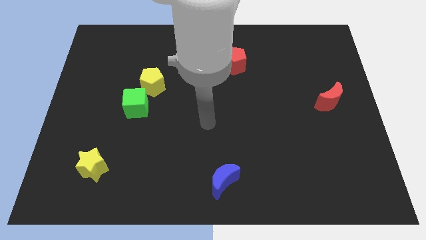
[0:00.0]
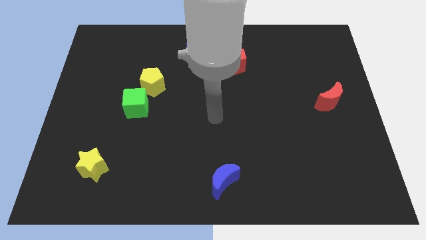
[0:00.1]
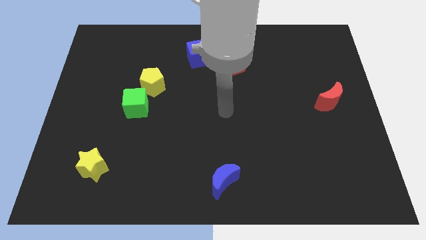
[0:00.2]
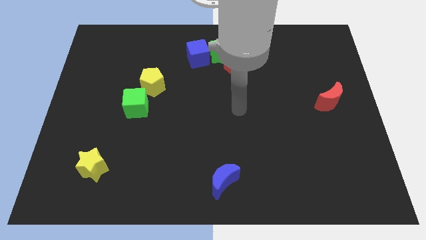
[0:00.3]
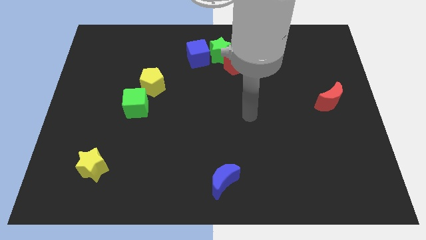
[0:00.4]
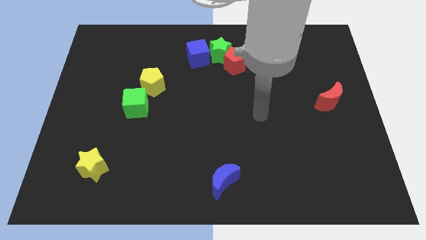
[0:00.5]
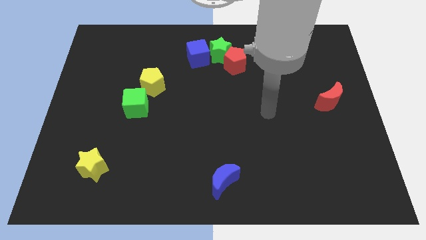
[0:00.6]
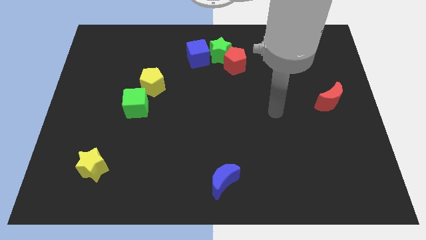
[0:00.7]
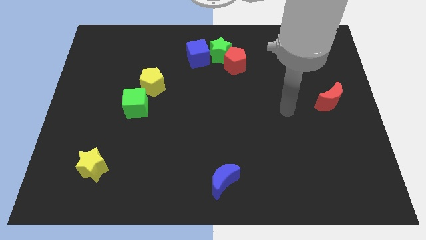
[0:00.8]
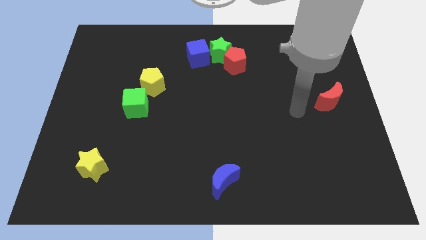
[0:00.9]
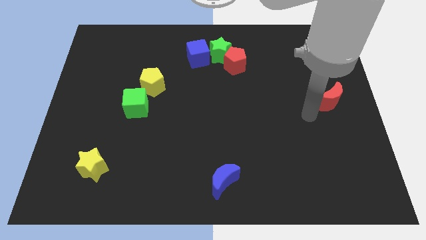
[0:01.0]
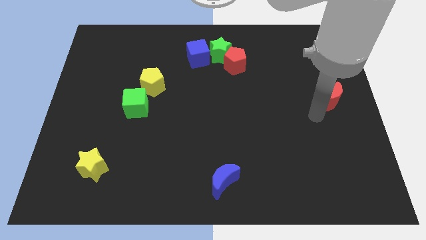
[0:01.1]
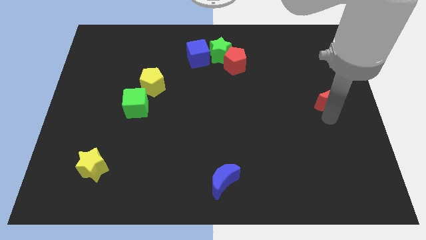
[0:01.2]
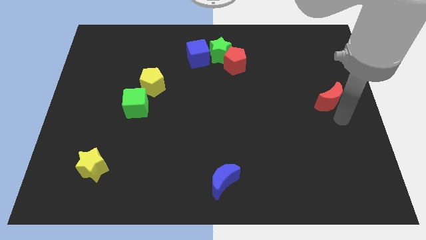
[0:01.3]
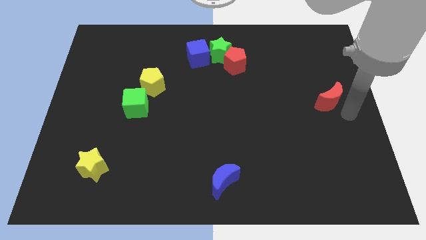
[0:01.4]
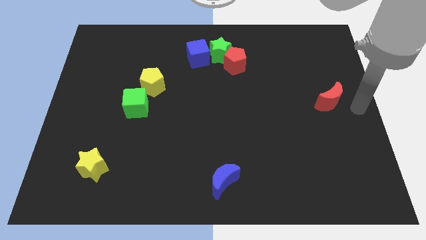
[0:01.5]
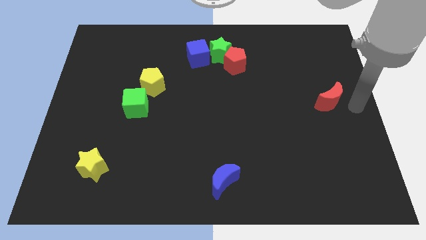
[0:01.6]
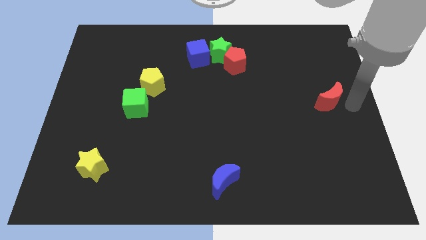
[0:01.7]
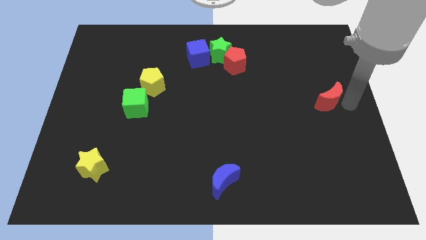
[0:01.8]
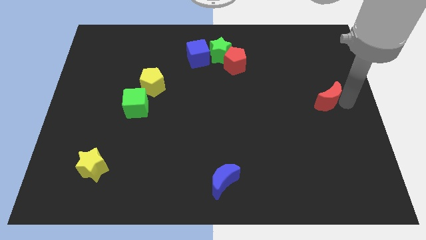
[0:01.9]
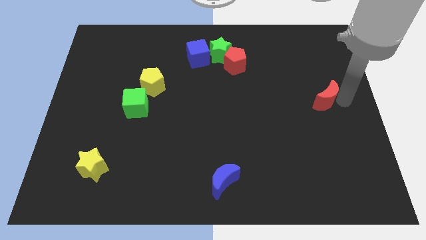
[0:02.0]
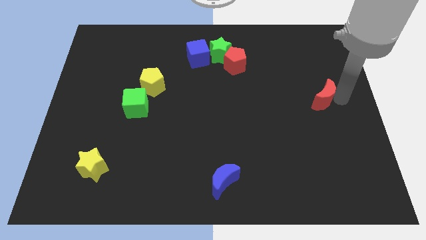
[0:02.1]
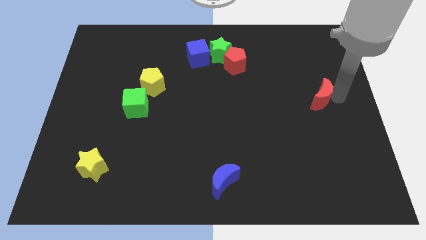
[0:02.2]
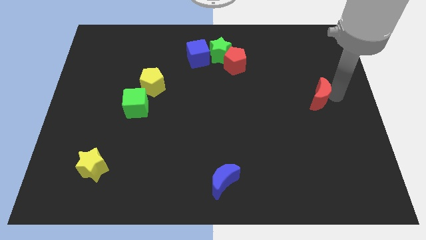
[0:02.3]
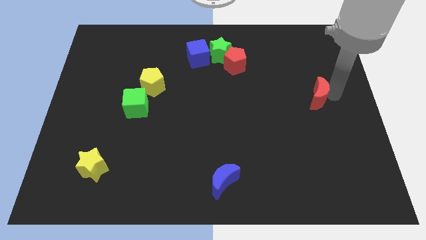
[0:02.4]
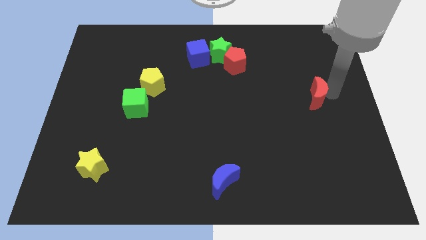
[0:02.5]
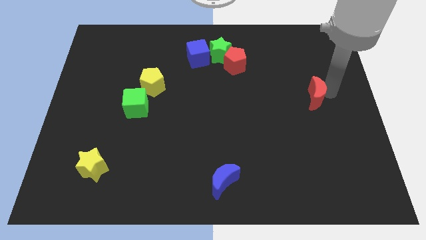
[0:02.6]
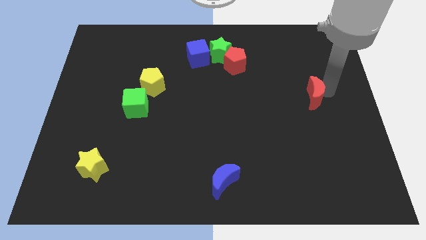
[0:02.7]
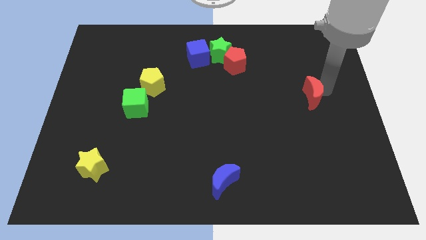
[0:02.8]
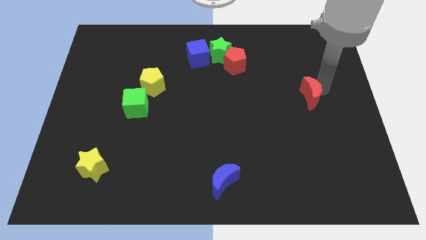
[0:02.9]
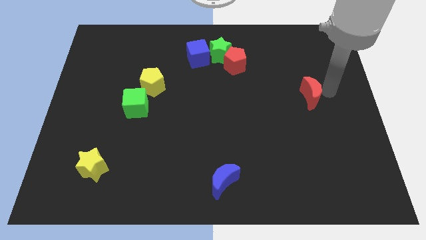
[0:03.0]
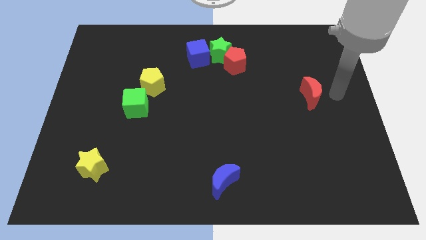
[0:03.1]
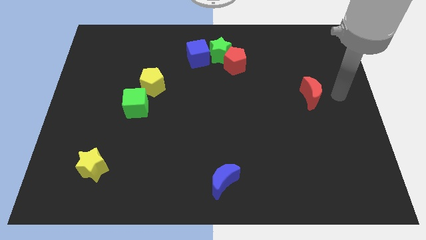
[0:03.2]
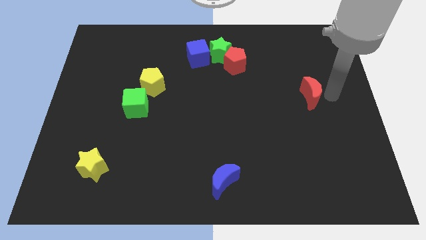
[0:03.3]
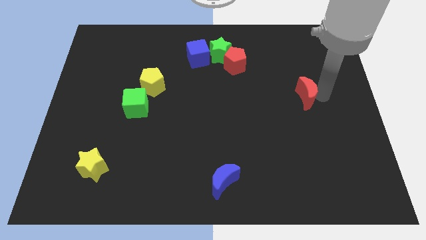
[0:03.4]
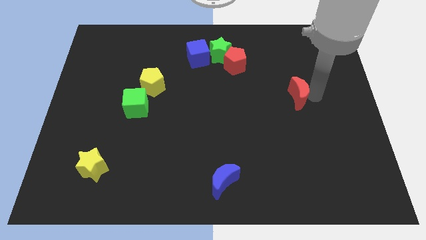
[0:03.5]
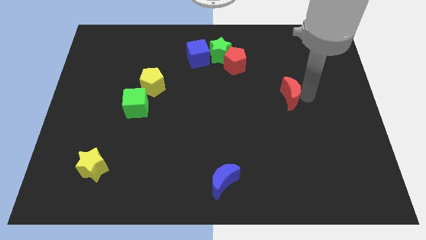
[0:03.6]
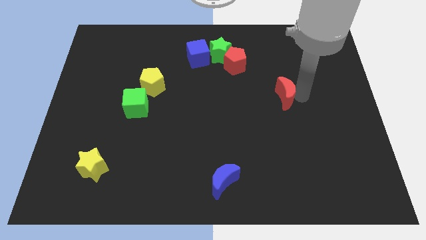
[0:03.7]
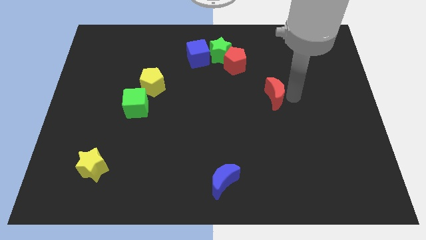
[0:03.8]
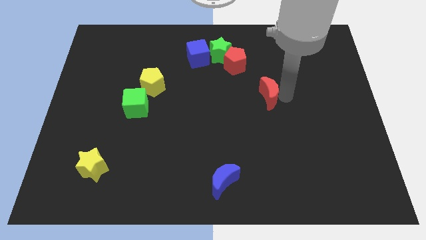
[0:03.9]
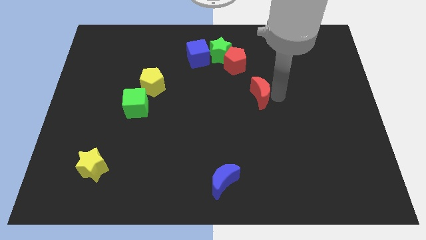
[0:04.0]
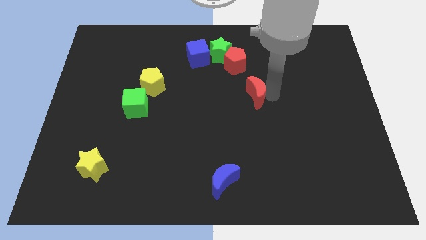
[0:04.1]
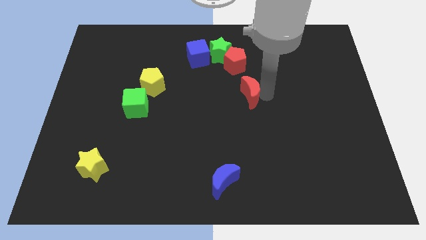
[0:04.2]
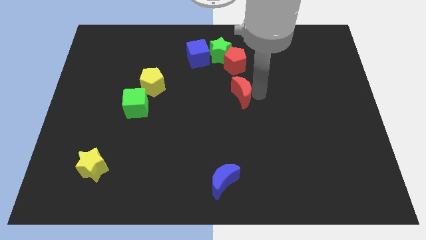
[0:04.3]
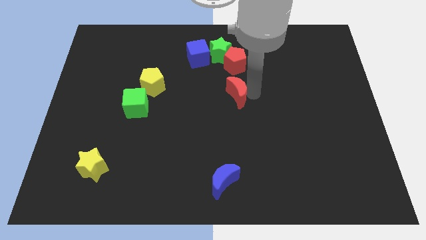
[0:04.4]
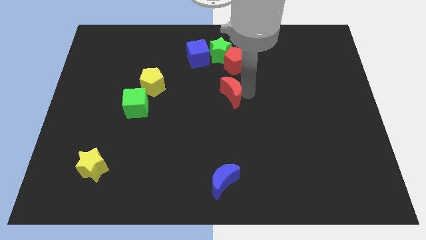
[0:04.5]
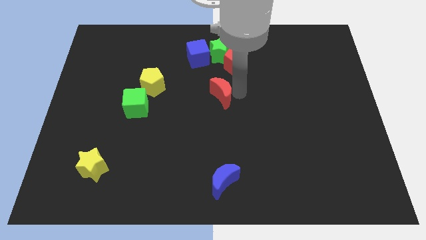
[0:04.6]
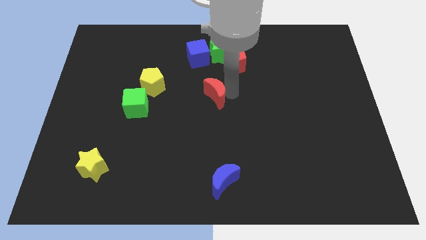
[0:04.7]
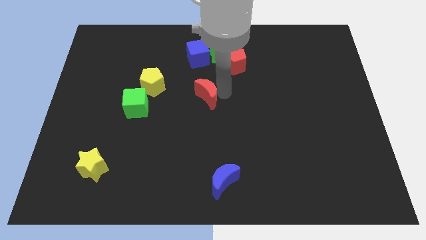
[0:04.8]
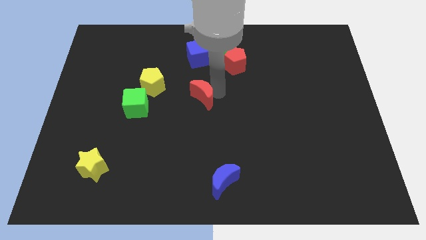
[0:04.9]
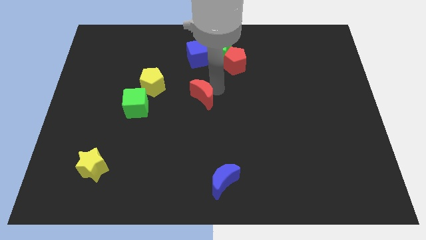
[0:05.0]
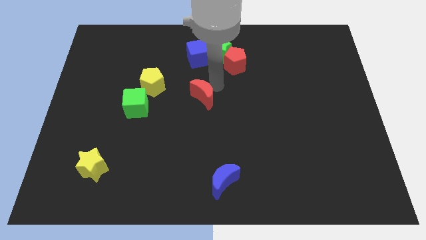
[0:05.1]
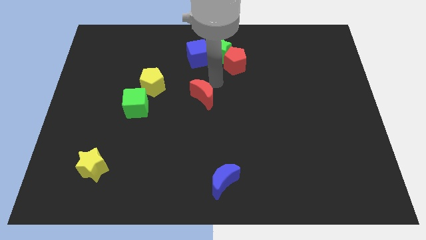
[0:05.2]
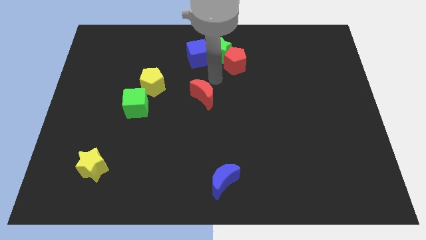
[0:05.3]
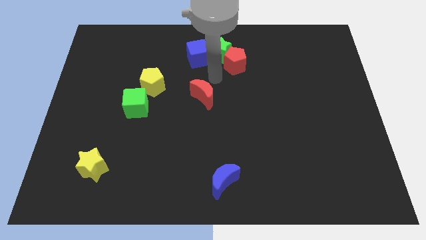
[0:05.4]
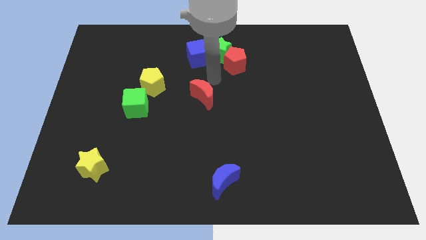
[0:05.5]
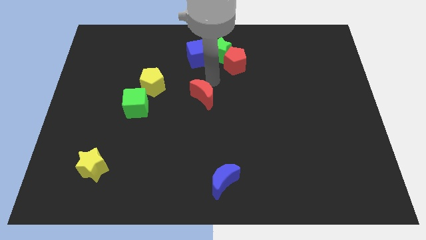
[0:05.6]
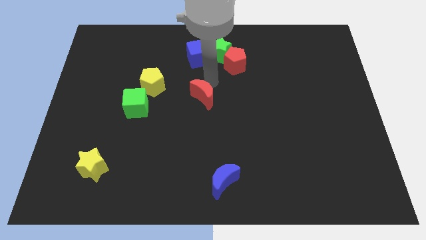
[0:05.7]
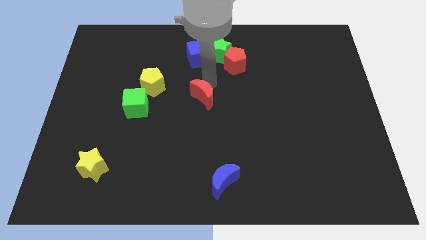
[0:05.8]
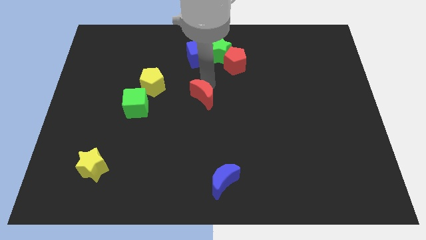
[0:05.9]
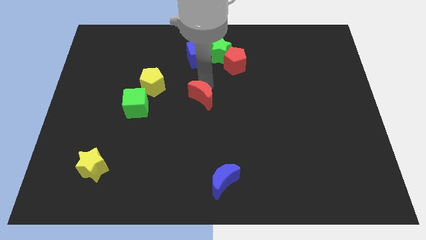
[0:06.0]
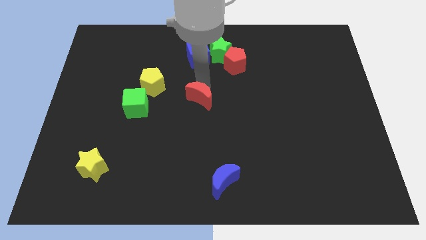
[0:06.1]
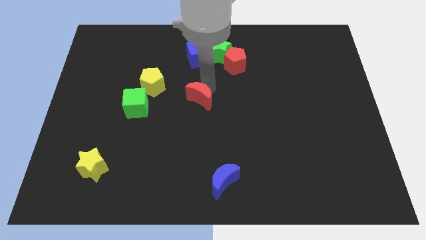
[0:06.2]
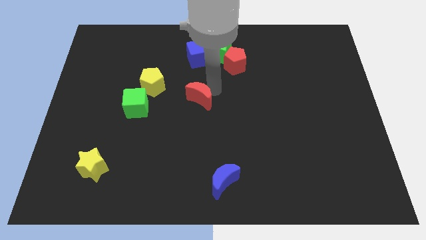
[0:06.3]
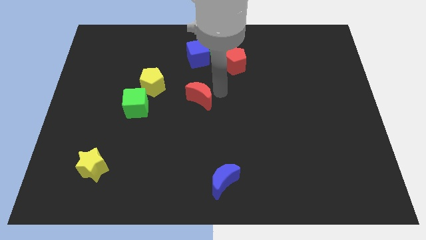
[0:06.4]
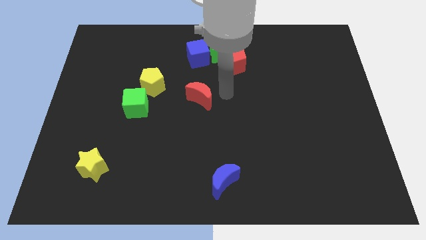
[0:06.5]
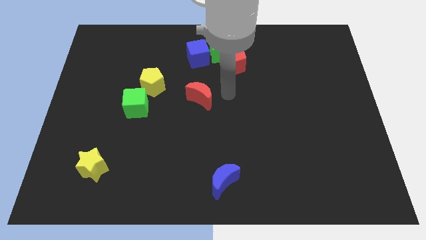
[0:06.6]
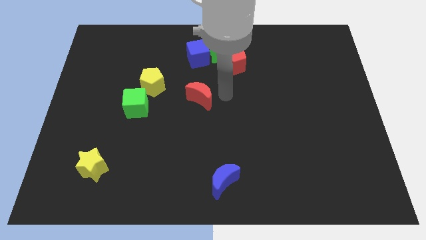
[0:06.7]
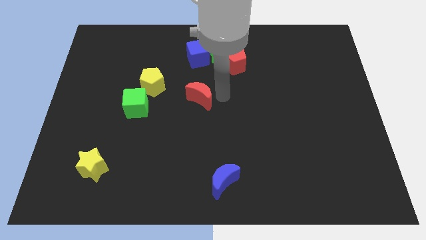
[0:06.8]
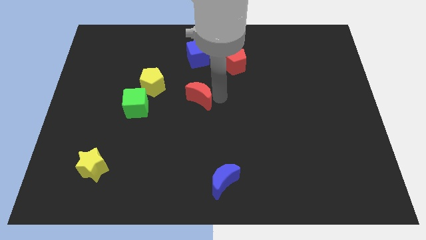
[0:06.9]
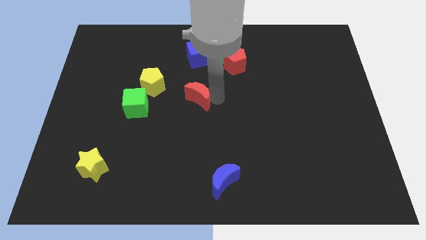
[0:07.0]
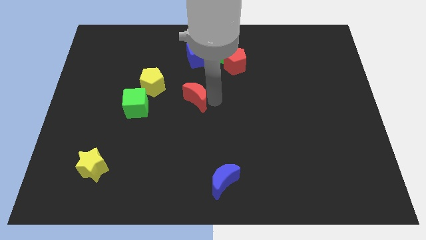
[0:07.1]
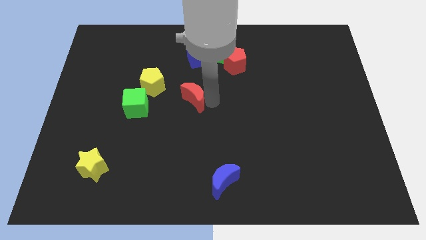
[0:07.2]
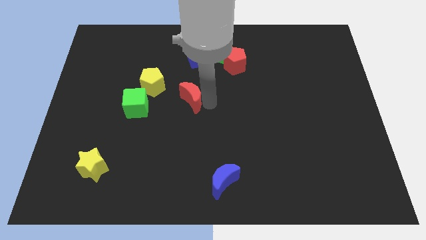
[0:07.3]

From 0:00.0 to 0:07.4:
slide the red moon to the bottom right of the yellow pentagon
